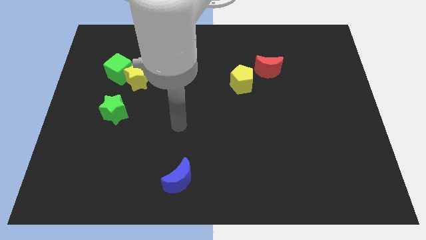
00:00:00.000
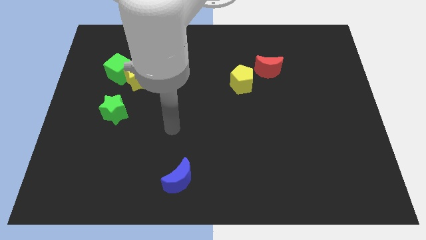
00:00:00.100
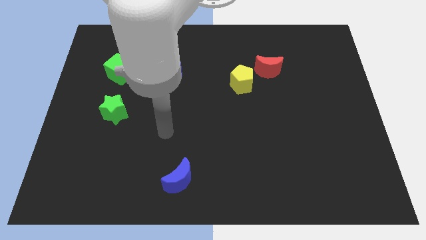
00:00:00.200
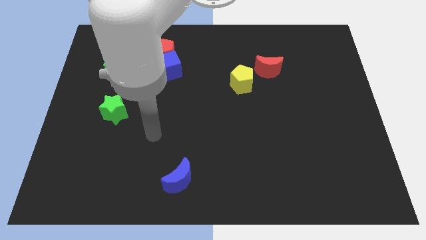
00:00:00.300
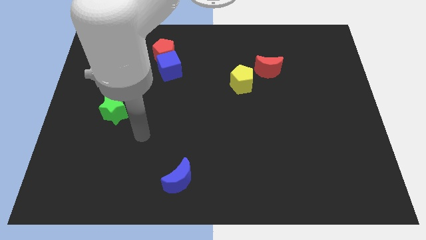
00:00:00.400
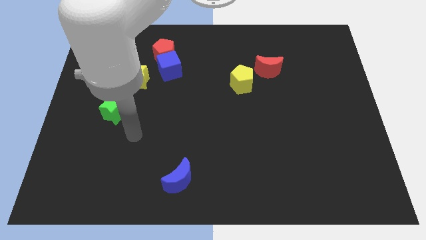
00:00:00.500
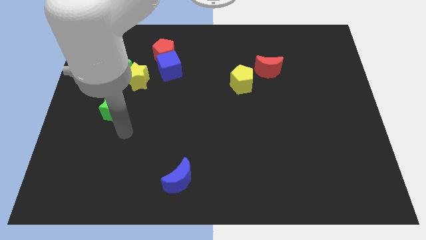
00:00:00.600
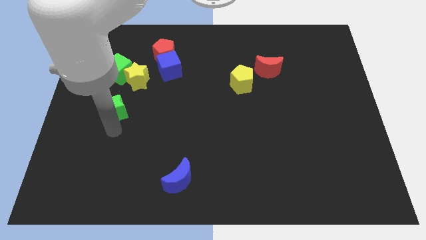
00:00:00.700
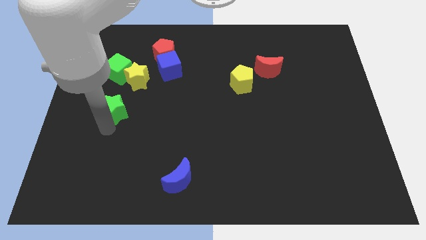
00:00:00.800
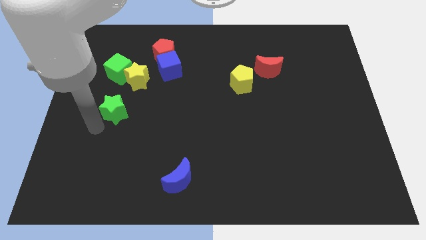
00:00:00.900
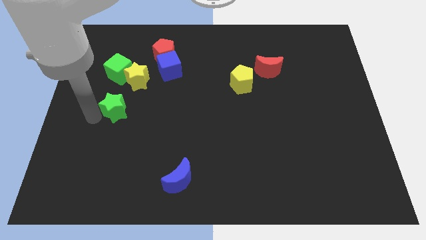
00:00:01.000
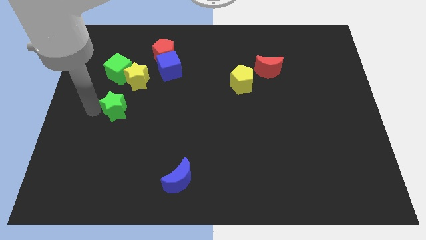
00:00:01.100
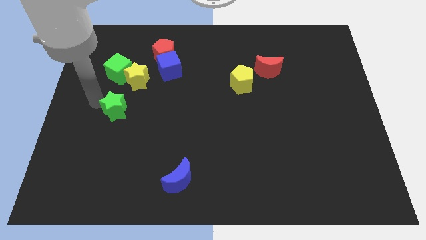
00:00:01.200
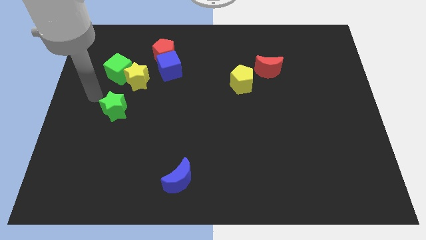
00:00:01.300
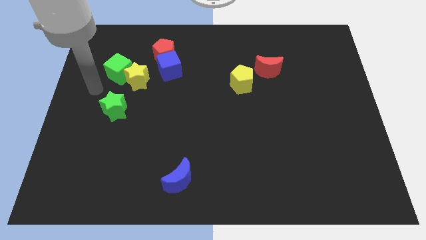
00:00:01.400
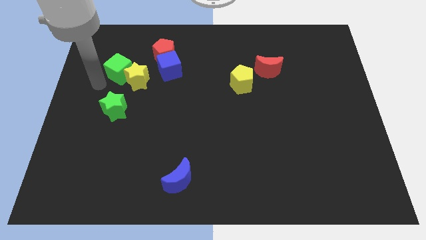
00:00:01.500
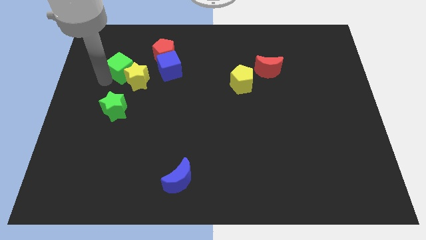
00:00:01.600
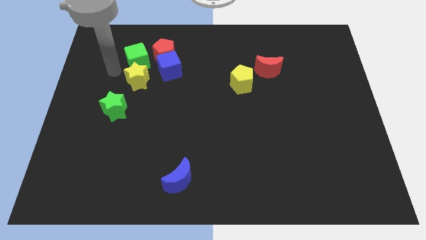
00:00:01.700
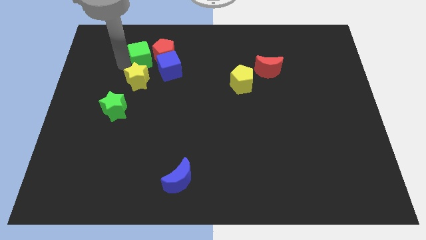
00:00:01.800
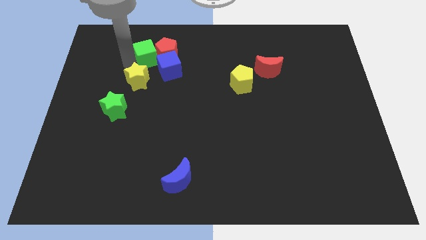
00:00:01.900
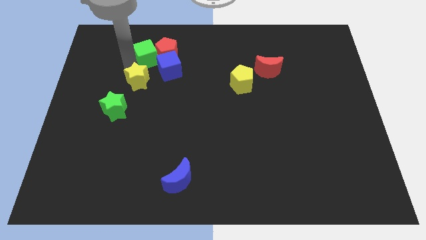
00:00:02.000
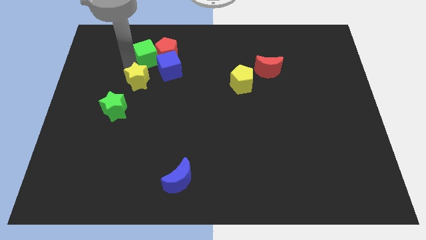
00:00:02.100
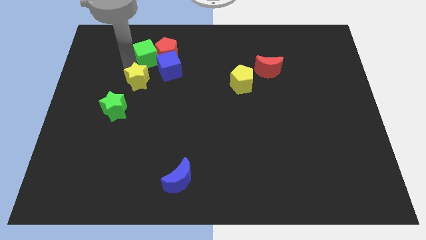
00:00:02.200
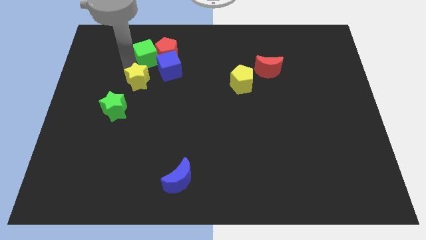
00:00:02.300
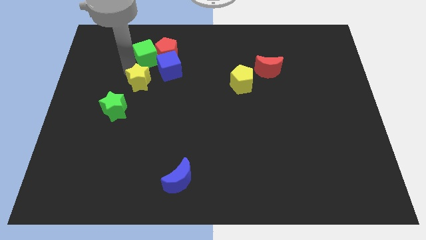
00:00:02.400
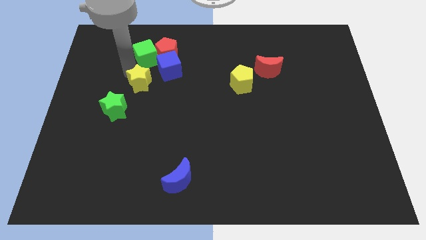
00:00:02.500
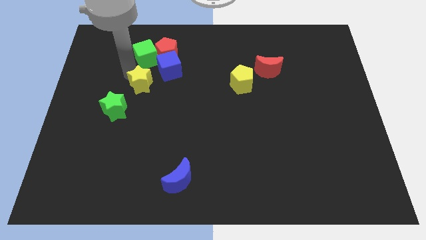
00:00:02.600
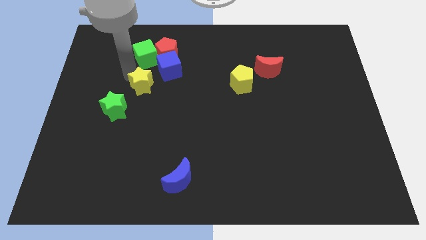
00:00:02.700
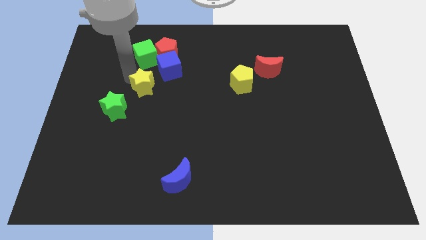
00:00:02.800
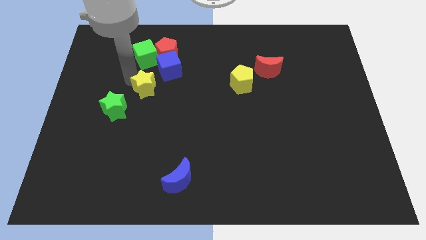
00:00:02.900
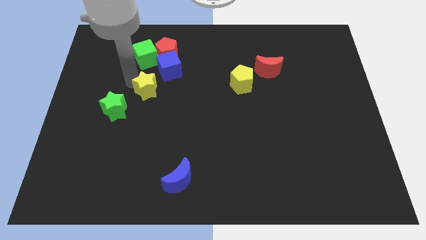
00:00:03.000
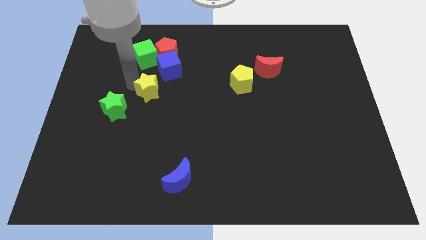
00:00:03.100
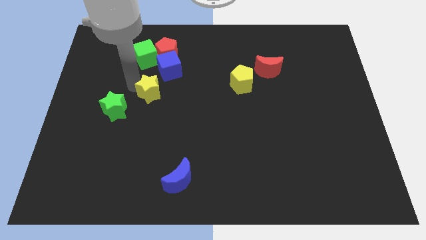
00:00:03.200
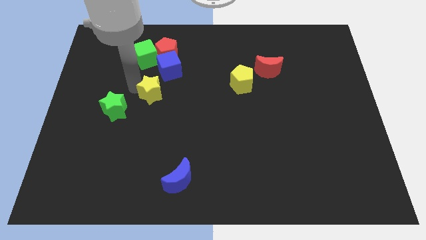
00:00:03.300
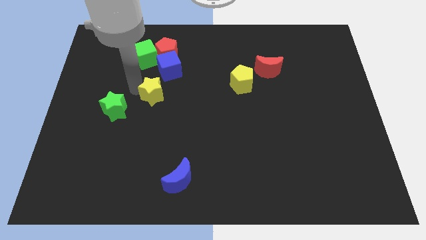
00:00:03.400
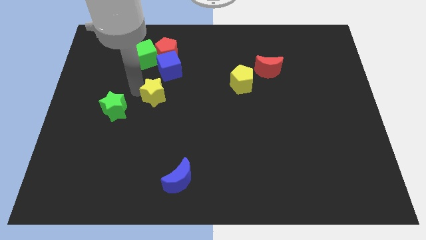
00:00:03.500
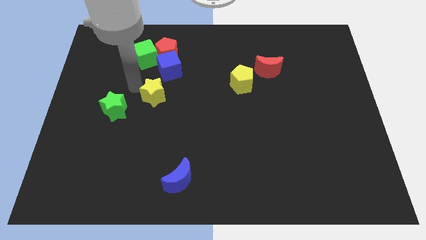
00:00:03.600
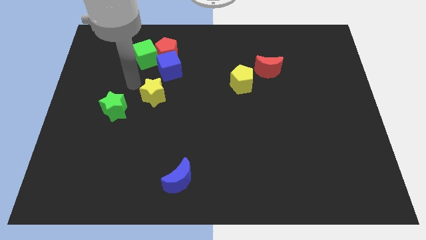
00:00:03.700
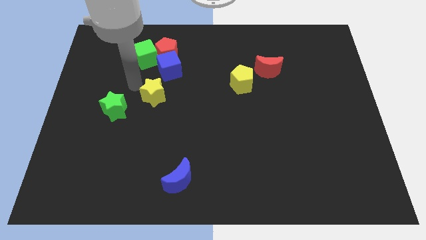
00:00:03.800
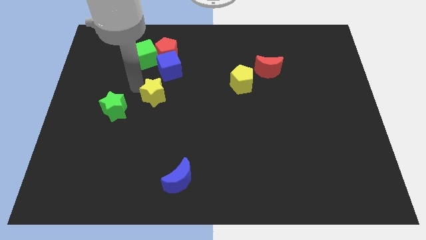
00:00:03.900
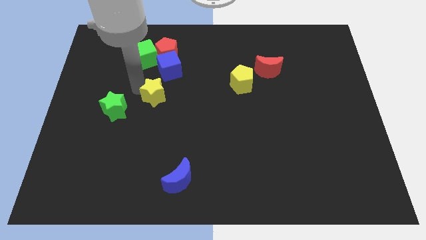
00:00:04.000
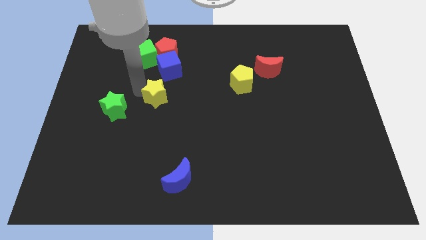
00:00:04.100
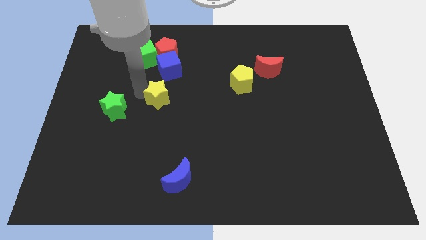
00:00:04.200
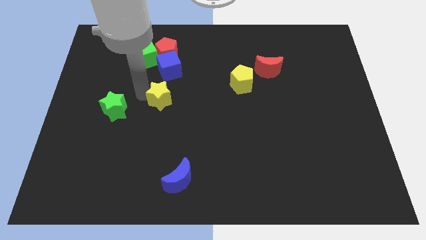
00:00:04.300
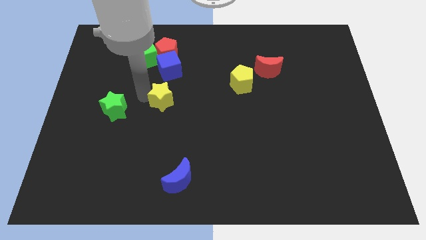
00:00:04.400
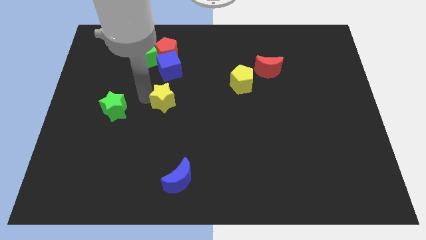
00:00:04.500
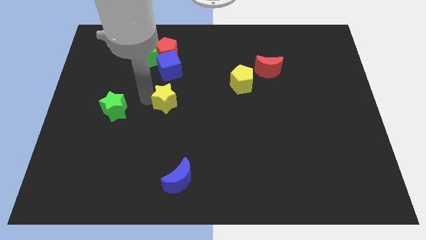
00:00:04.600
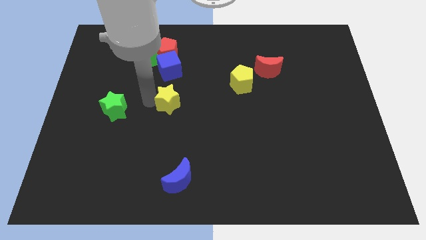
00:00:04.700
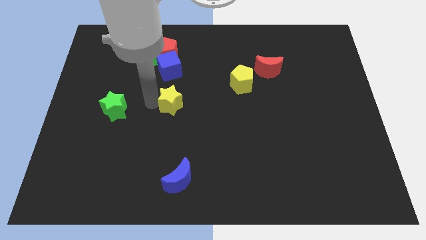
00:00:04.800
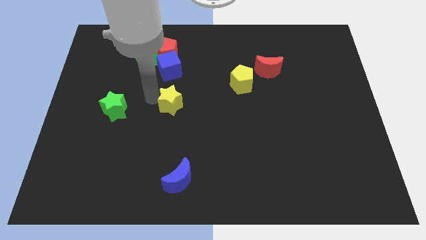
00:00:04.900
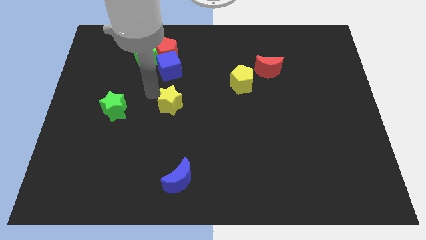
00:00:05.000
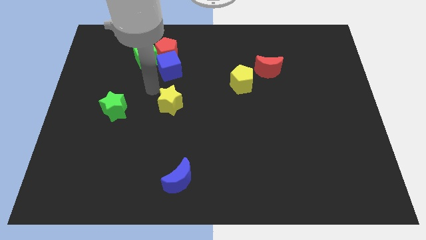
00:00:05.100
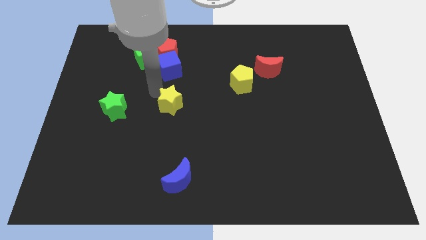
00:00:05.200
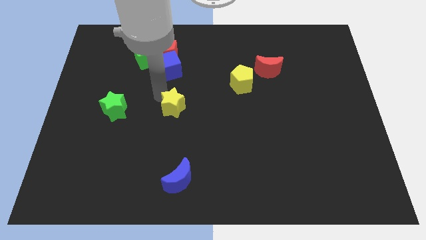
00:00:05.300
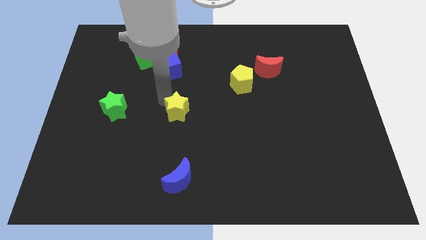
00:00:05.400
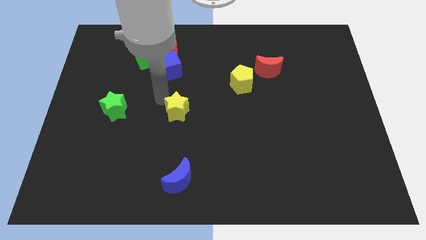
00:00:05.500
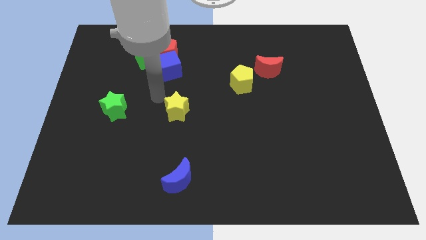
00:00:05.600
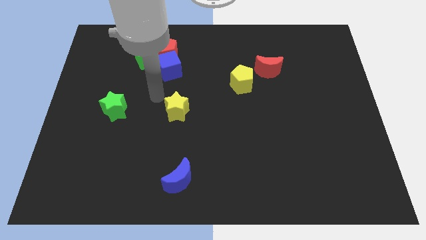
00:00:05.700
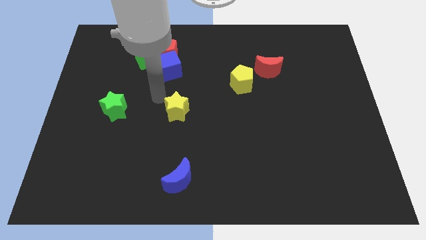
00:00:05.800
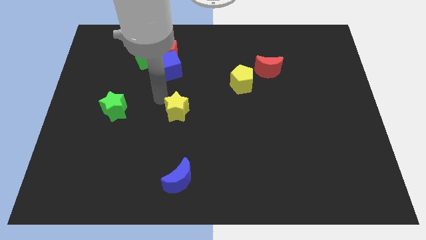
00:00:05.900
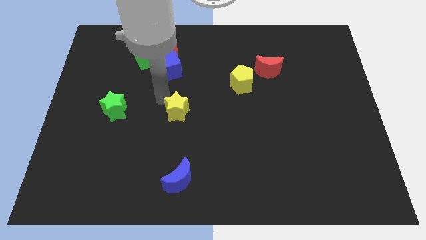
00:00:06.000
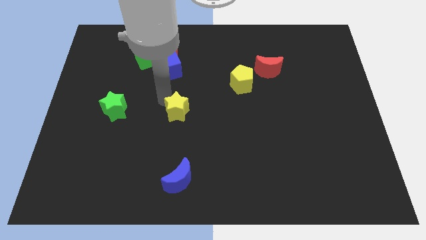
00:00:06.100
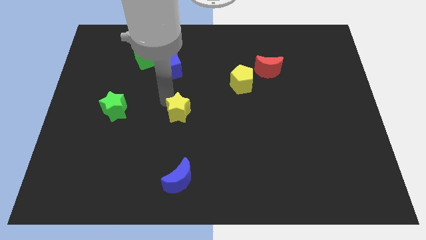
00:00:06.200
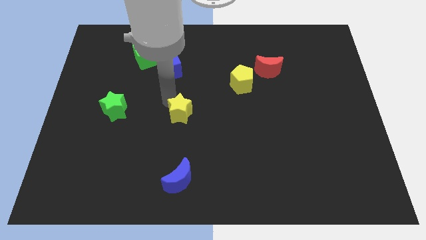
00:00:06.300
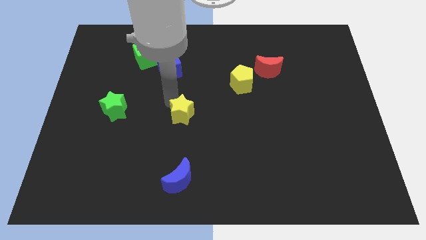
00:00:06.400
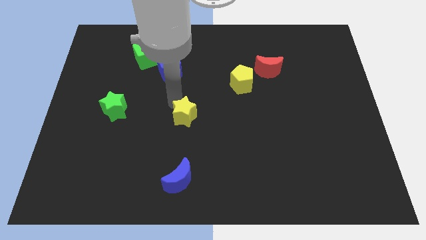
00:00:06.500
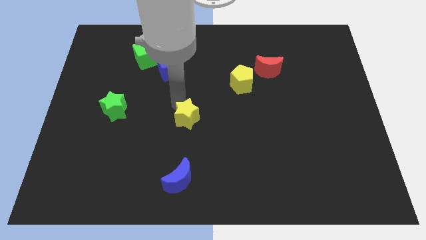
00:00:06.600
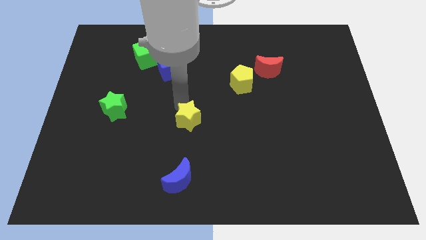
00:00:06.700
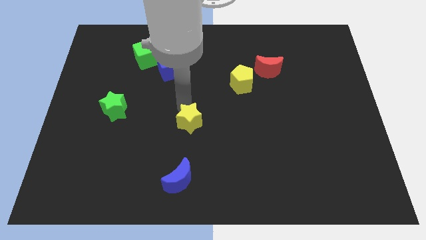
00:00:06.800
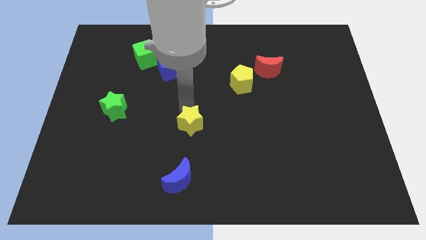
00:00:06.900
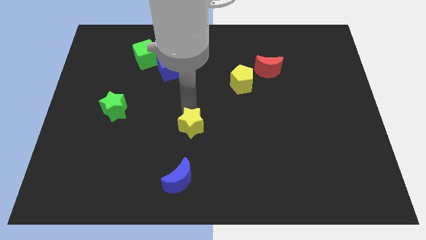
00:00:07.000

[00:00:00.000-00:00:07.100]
slide the yellow star diagonally down and to the right

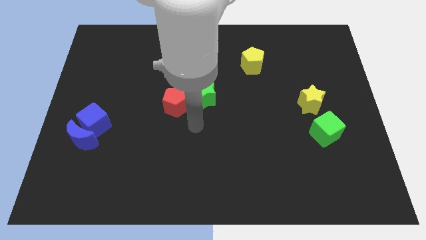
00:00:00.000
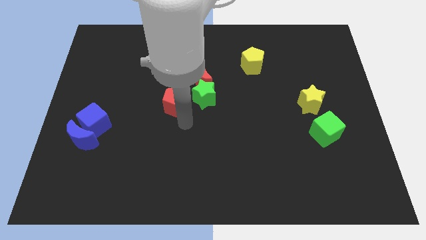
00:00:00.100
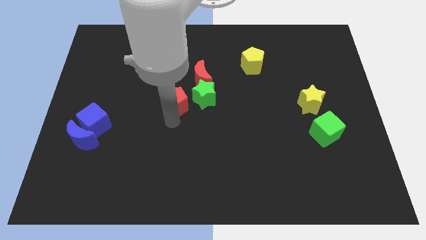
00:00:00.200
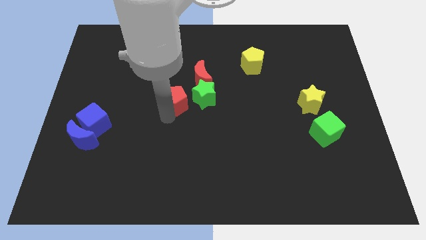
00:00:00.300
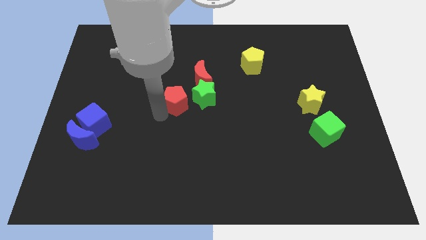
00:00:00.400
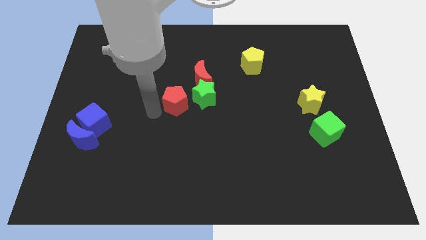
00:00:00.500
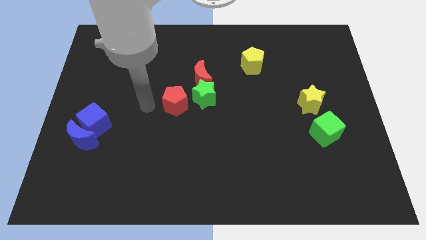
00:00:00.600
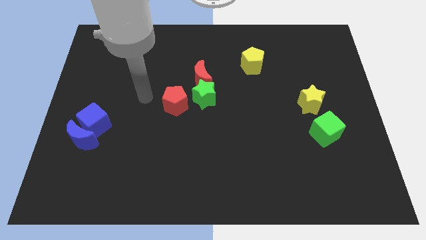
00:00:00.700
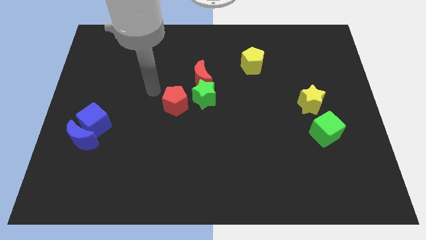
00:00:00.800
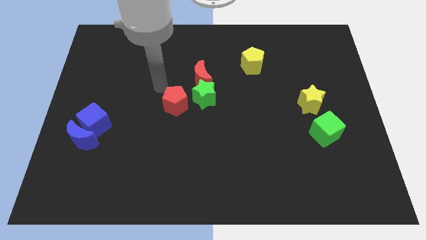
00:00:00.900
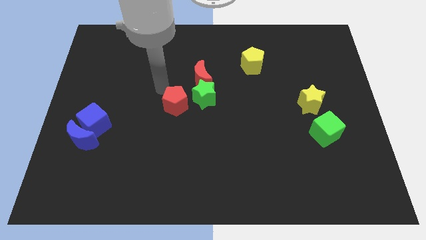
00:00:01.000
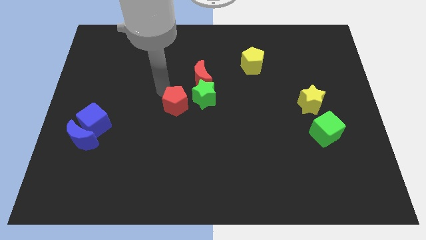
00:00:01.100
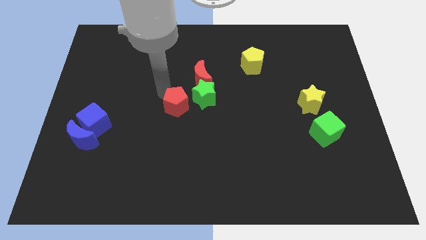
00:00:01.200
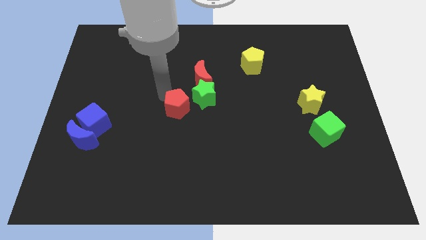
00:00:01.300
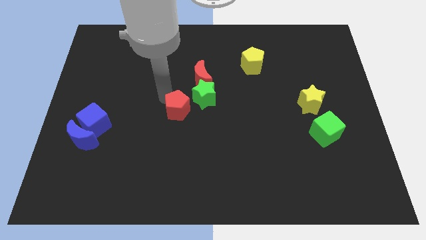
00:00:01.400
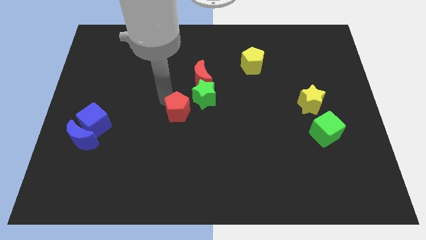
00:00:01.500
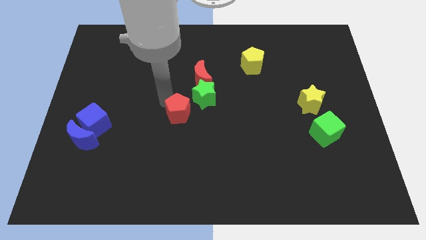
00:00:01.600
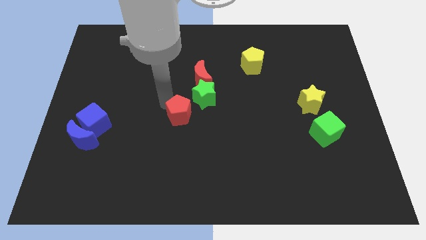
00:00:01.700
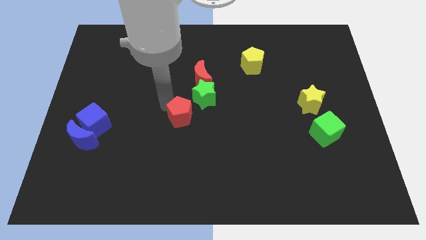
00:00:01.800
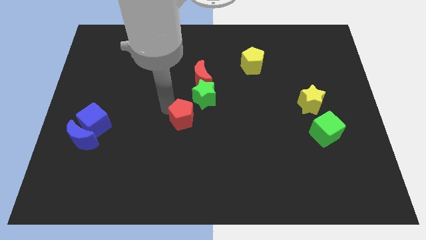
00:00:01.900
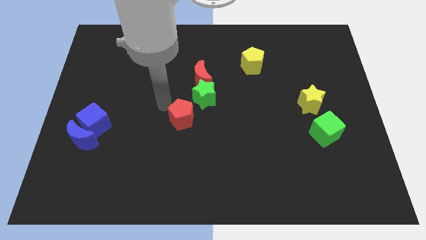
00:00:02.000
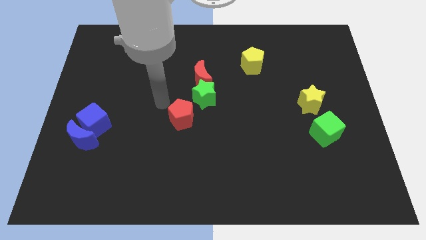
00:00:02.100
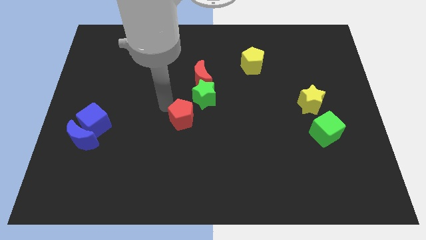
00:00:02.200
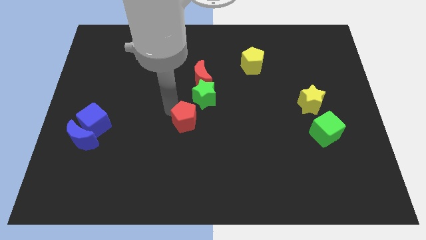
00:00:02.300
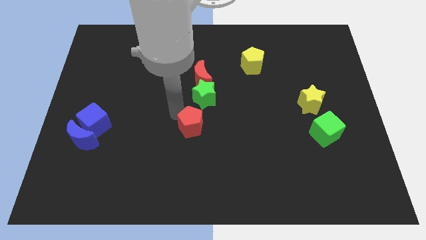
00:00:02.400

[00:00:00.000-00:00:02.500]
slightly move the red pentagon diagonally down and to the right
